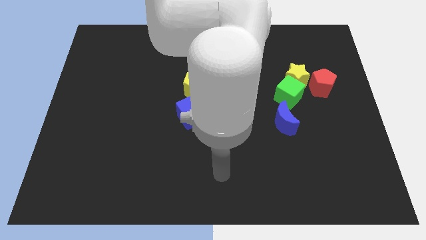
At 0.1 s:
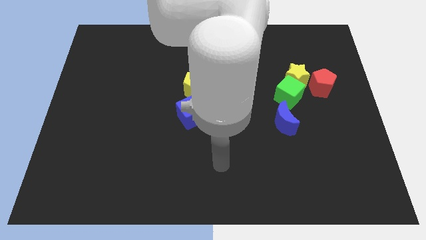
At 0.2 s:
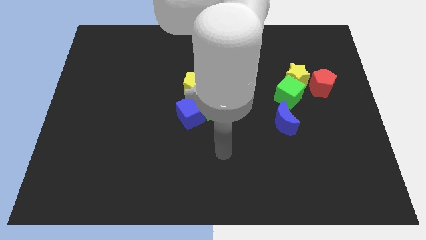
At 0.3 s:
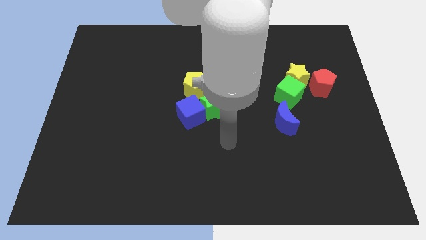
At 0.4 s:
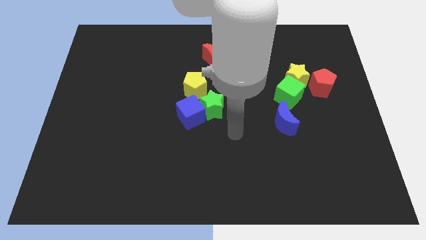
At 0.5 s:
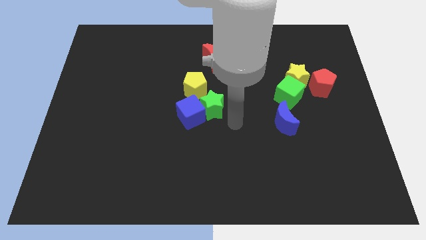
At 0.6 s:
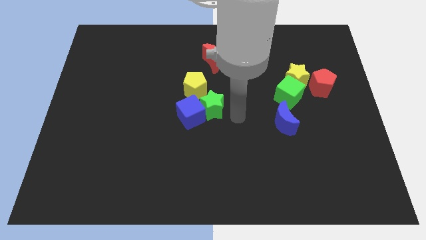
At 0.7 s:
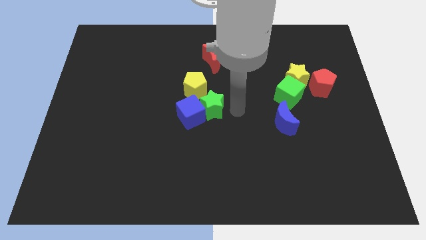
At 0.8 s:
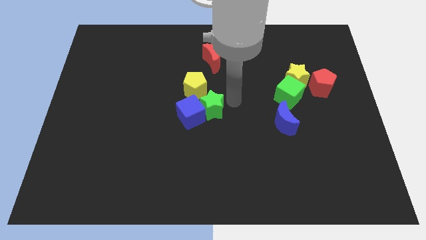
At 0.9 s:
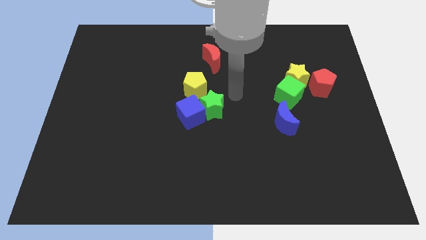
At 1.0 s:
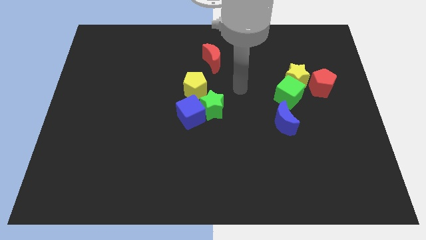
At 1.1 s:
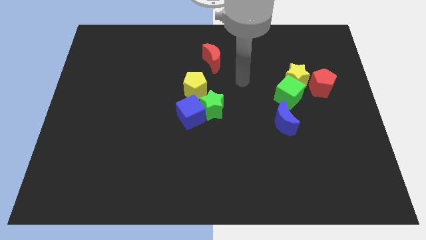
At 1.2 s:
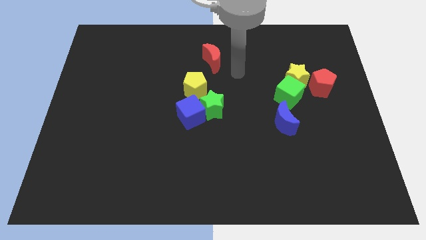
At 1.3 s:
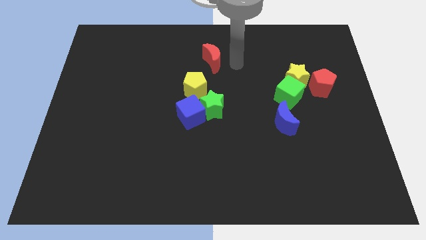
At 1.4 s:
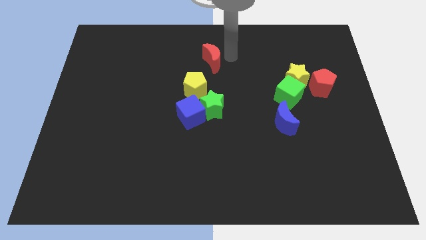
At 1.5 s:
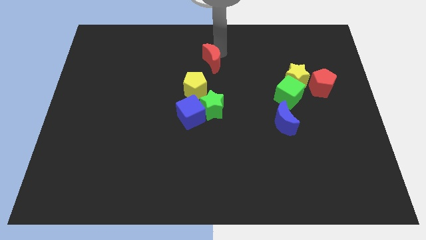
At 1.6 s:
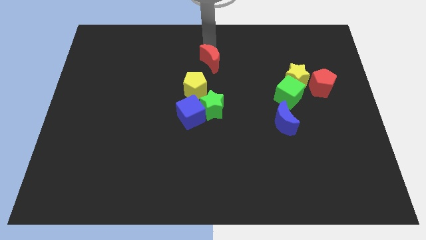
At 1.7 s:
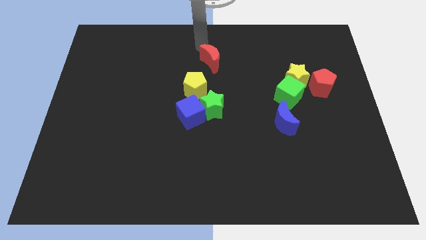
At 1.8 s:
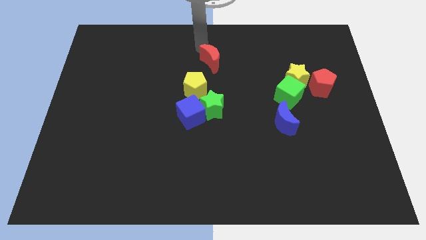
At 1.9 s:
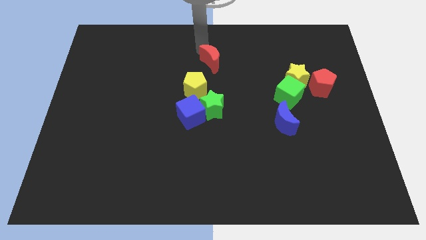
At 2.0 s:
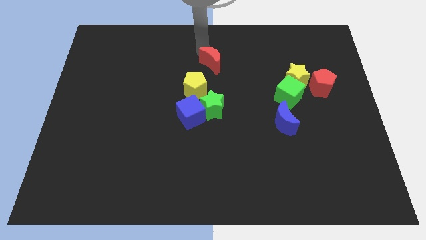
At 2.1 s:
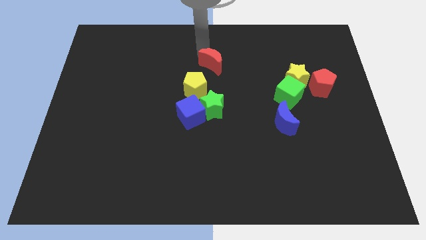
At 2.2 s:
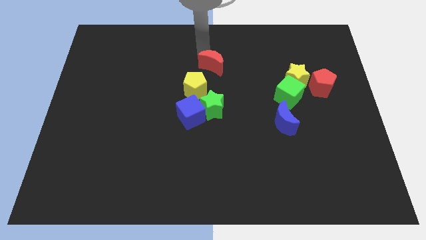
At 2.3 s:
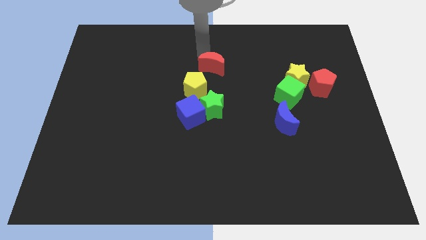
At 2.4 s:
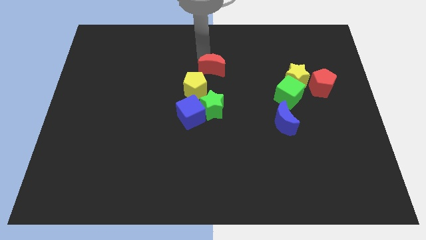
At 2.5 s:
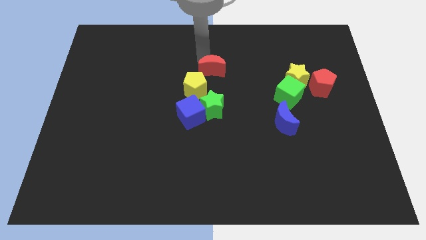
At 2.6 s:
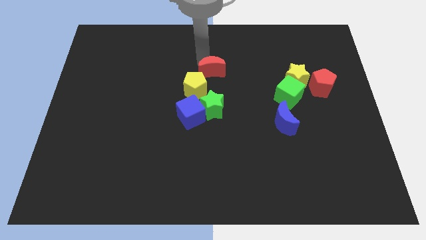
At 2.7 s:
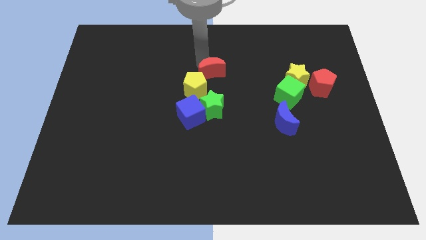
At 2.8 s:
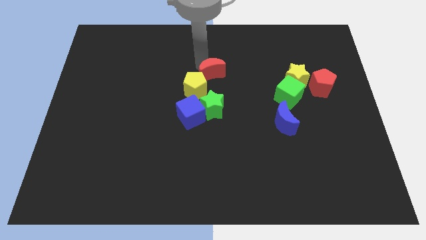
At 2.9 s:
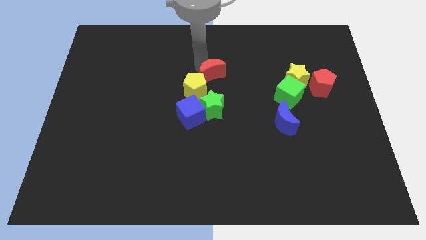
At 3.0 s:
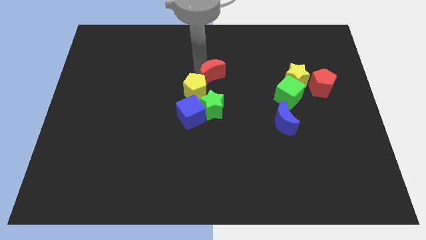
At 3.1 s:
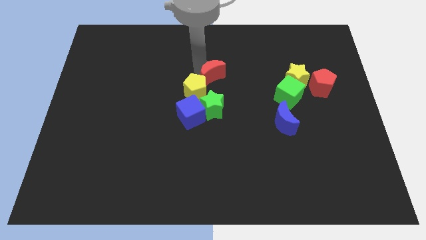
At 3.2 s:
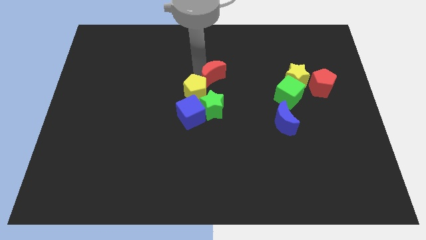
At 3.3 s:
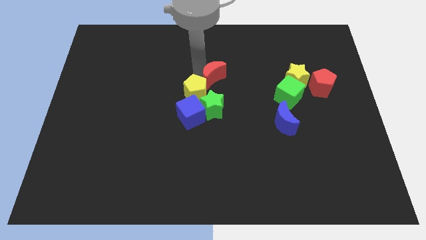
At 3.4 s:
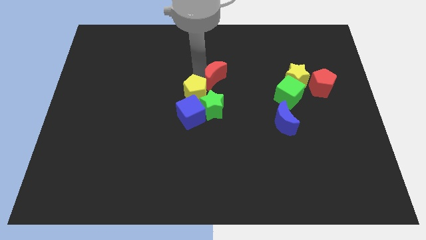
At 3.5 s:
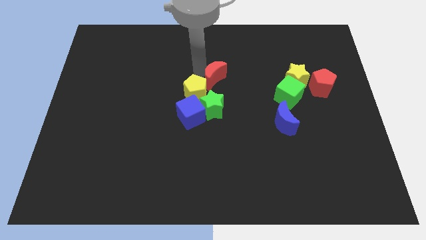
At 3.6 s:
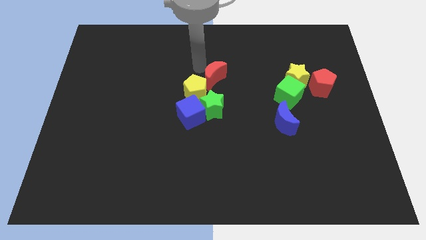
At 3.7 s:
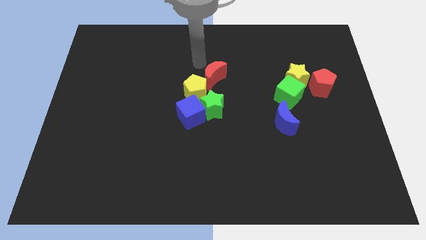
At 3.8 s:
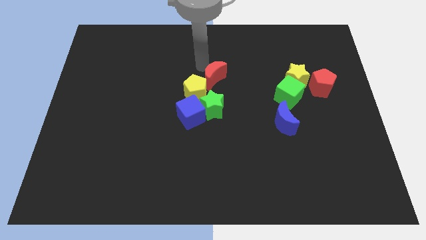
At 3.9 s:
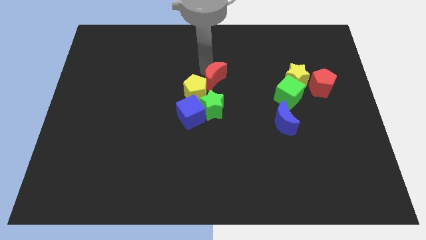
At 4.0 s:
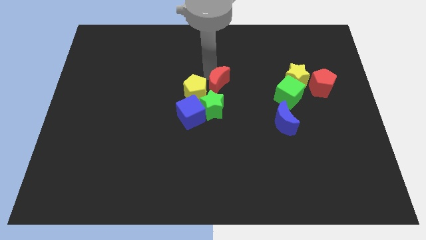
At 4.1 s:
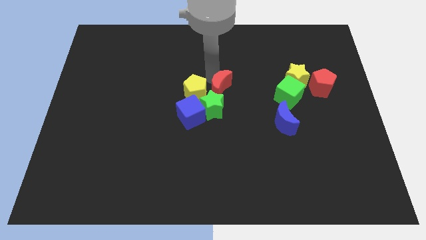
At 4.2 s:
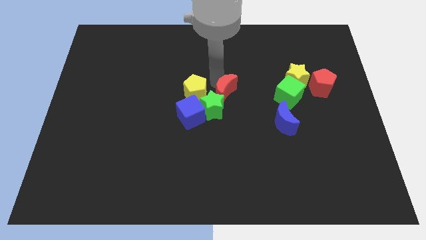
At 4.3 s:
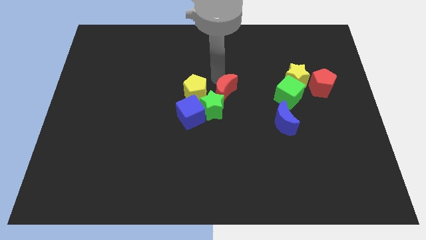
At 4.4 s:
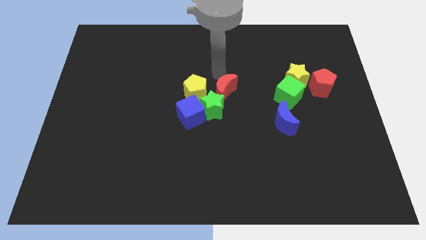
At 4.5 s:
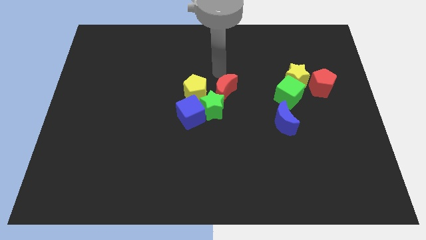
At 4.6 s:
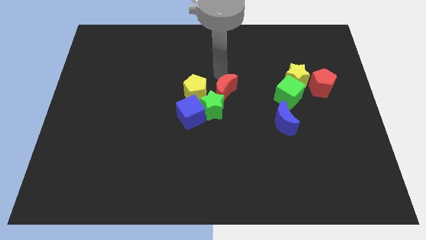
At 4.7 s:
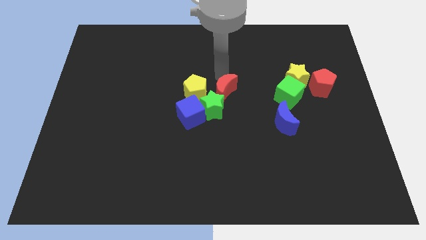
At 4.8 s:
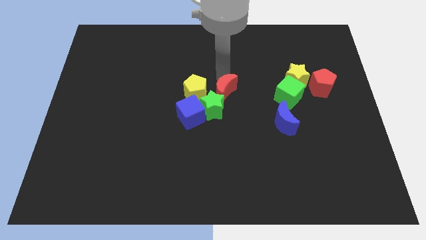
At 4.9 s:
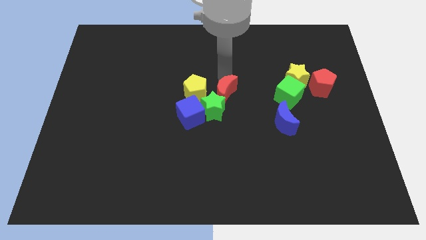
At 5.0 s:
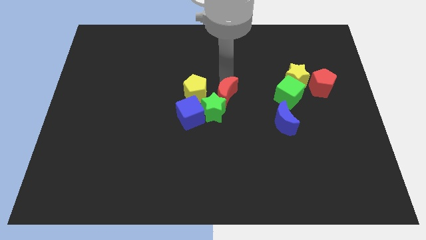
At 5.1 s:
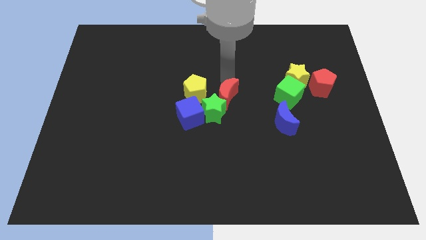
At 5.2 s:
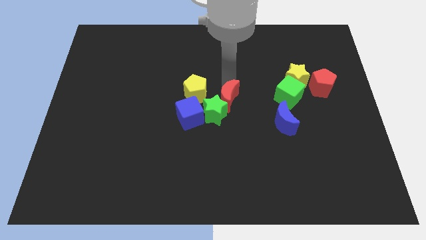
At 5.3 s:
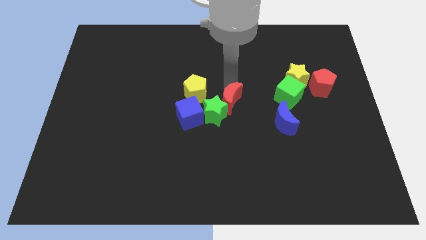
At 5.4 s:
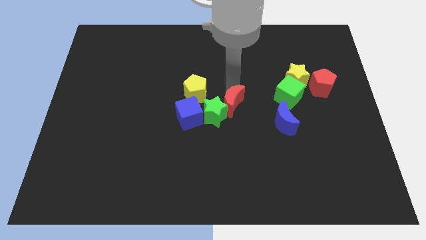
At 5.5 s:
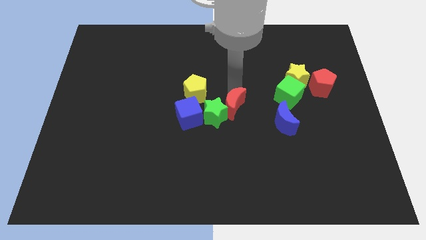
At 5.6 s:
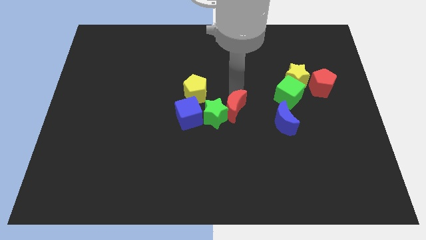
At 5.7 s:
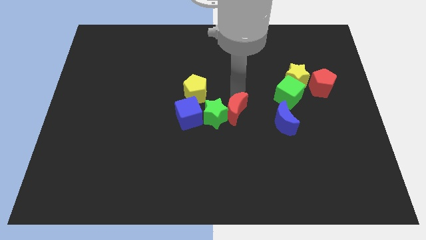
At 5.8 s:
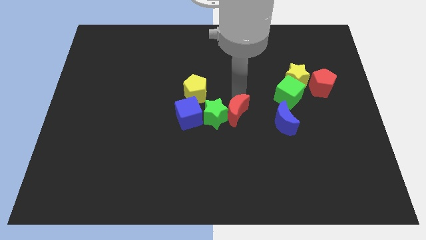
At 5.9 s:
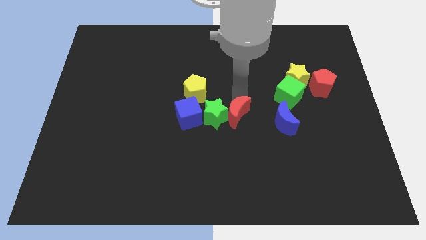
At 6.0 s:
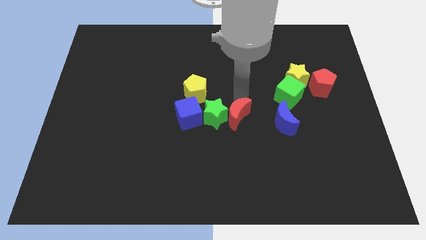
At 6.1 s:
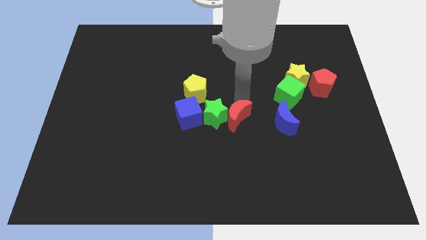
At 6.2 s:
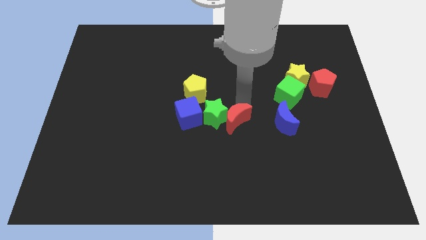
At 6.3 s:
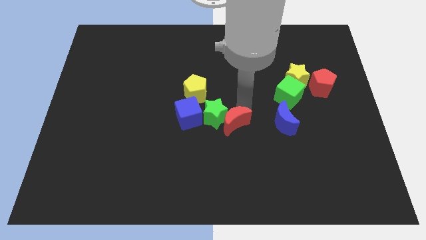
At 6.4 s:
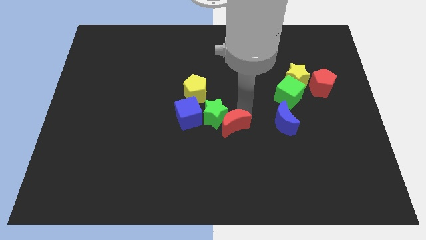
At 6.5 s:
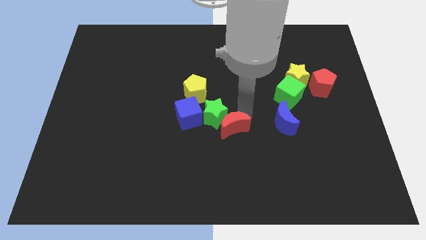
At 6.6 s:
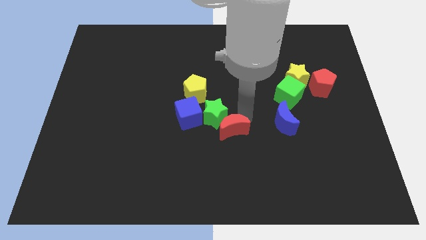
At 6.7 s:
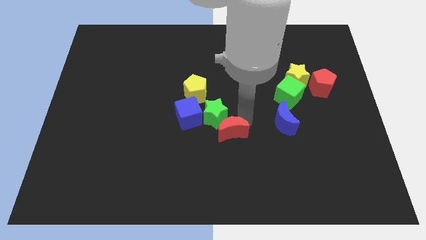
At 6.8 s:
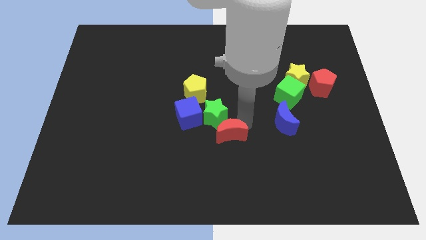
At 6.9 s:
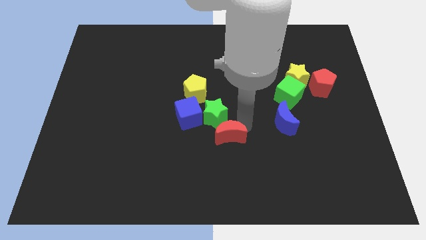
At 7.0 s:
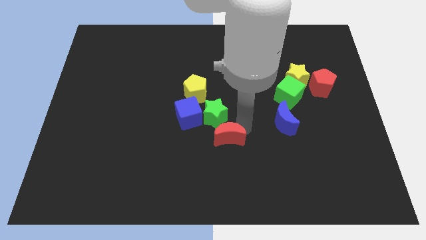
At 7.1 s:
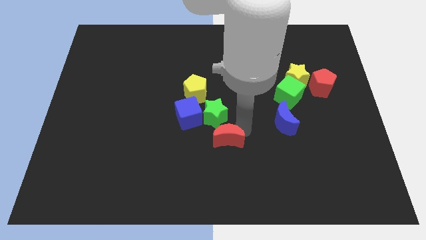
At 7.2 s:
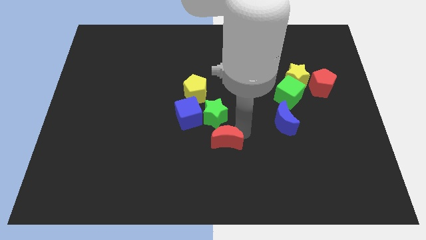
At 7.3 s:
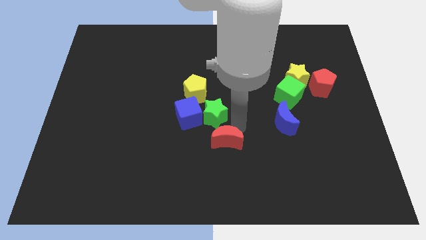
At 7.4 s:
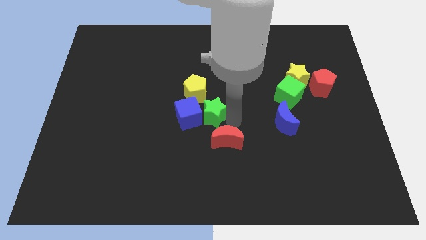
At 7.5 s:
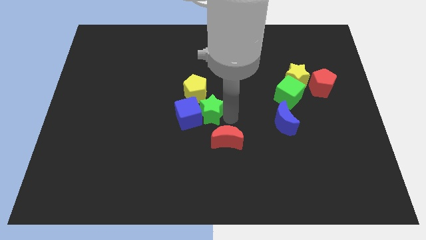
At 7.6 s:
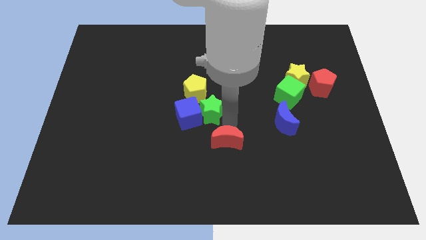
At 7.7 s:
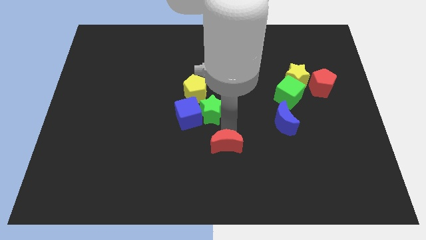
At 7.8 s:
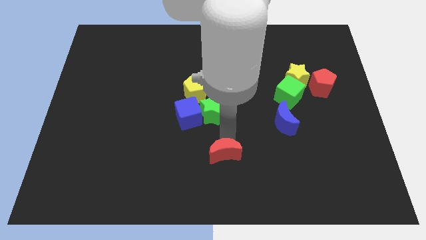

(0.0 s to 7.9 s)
slide the red moon to the bottom side
